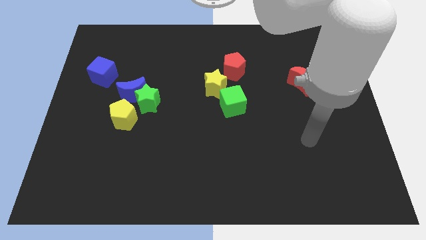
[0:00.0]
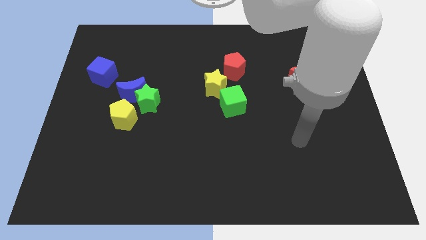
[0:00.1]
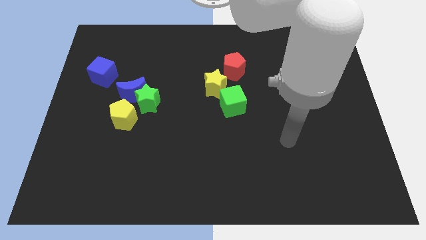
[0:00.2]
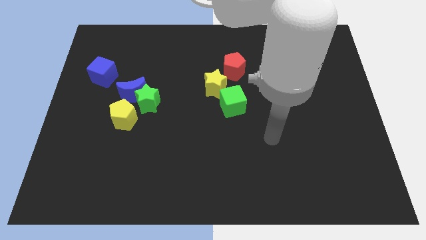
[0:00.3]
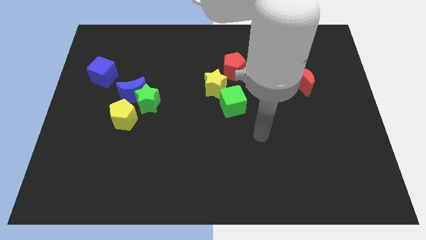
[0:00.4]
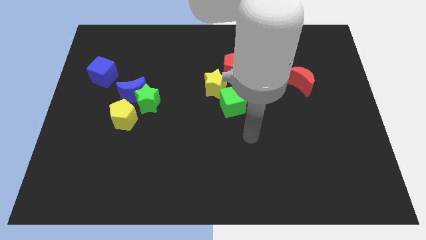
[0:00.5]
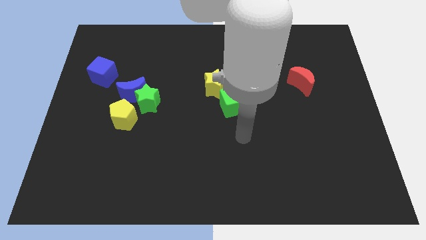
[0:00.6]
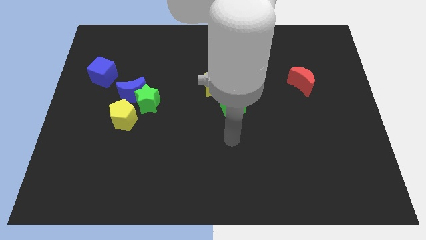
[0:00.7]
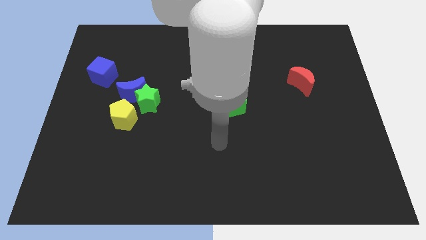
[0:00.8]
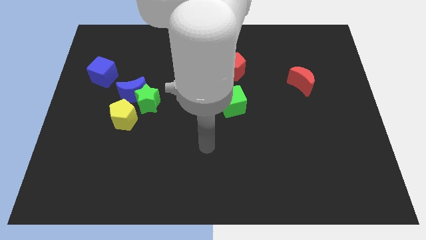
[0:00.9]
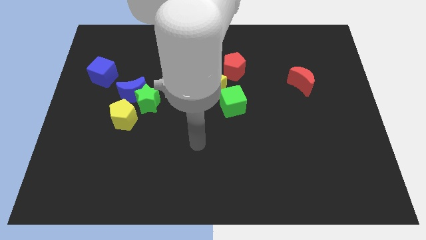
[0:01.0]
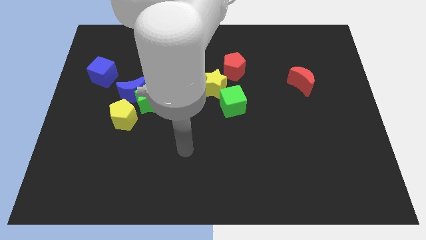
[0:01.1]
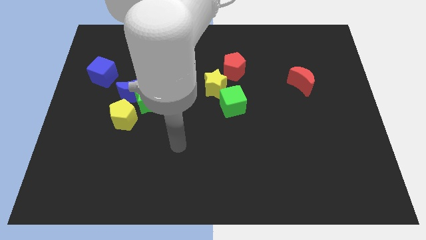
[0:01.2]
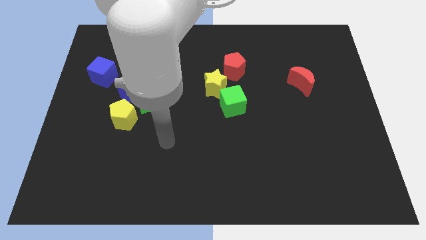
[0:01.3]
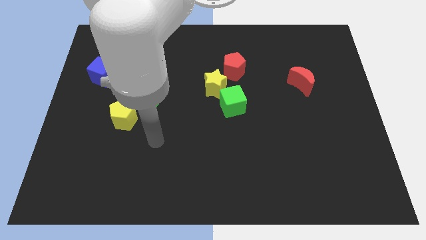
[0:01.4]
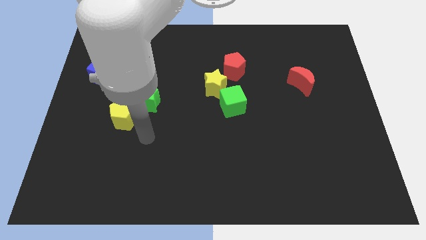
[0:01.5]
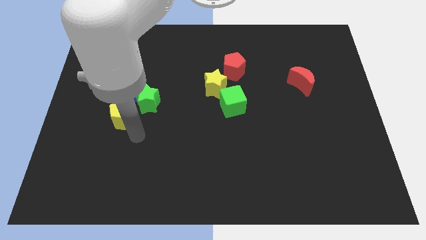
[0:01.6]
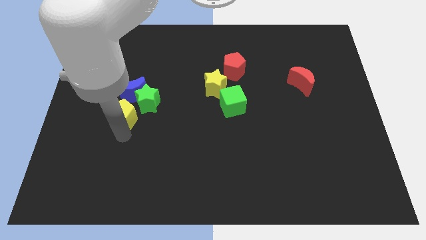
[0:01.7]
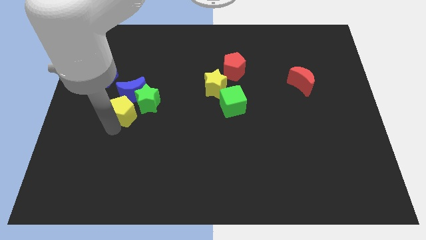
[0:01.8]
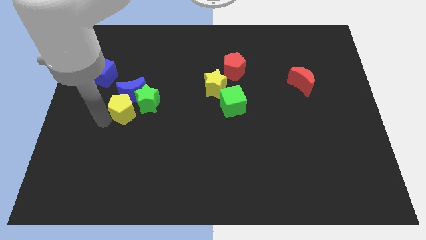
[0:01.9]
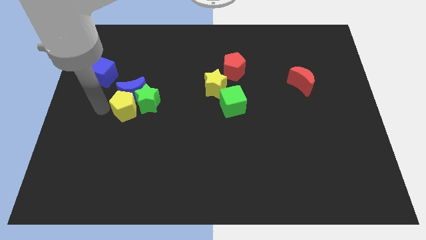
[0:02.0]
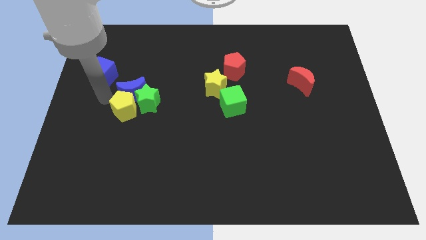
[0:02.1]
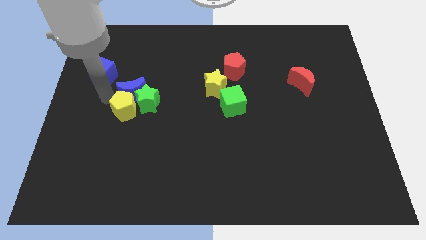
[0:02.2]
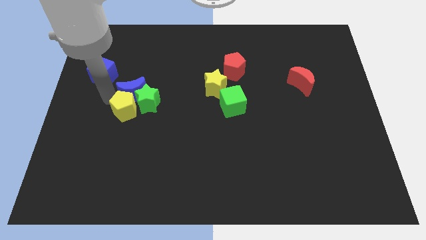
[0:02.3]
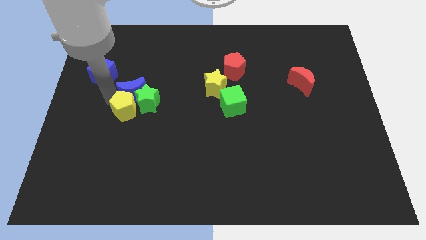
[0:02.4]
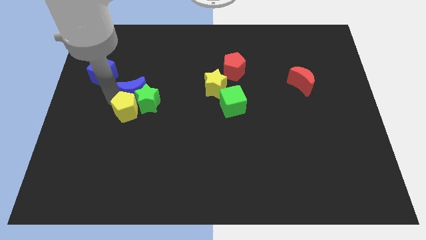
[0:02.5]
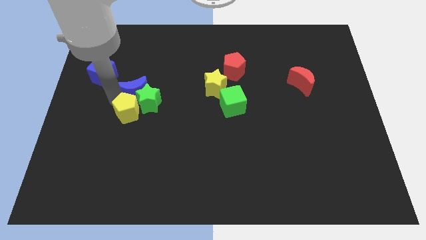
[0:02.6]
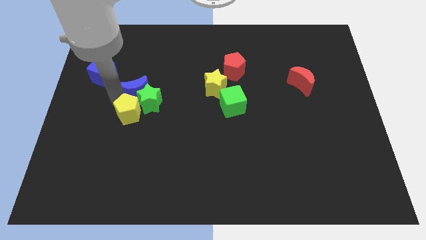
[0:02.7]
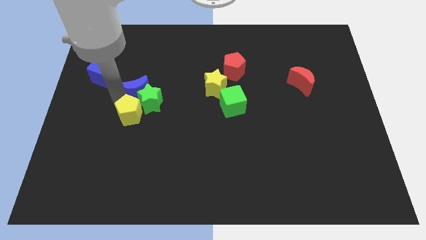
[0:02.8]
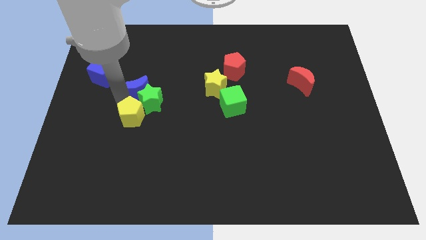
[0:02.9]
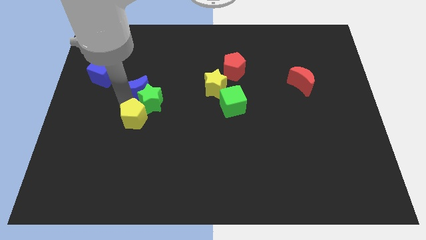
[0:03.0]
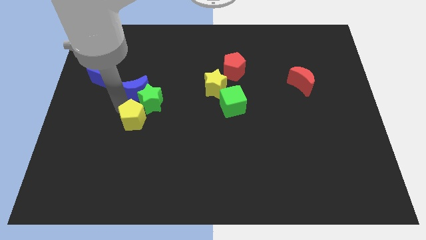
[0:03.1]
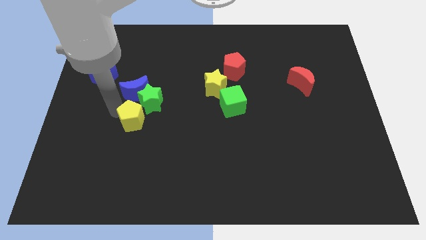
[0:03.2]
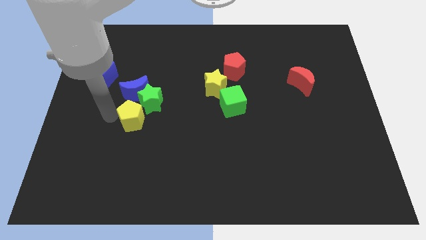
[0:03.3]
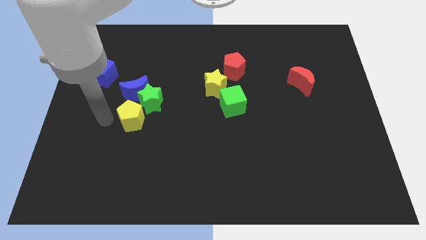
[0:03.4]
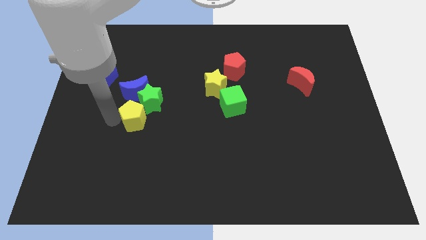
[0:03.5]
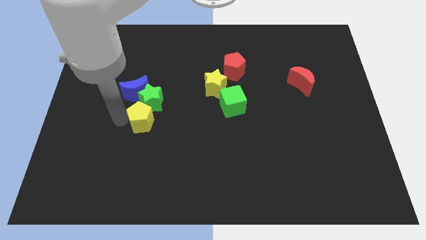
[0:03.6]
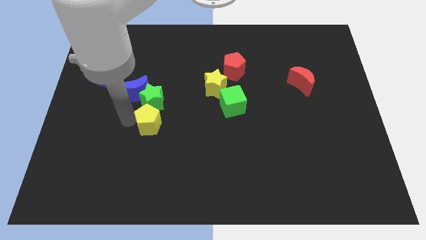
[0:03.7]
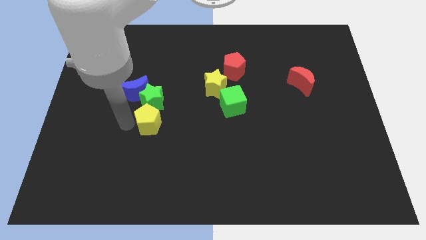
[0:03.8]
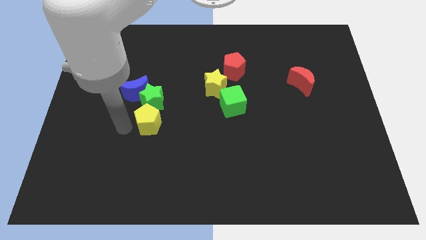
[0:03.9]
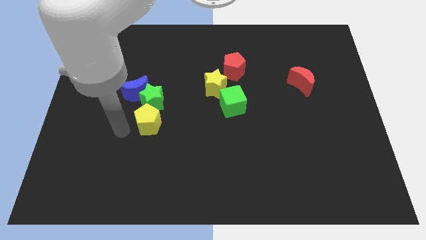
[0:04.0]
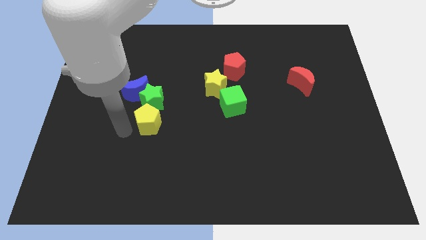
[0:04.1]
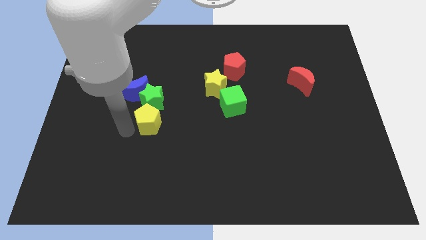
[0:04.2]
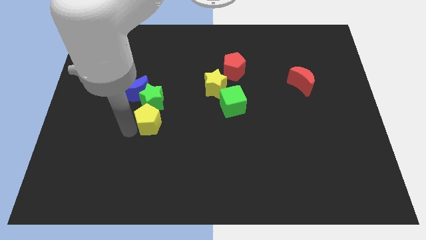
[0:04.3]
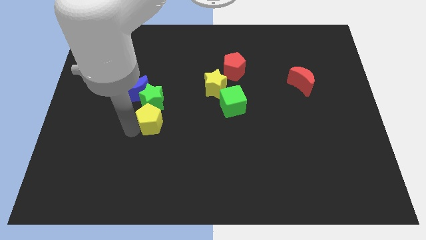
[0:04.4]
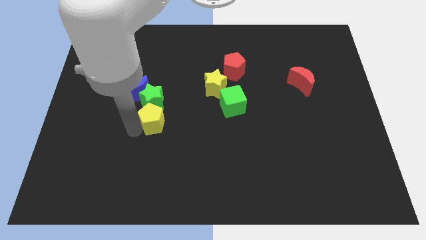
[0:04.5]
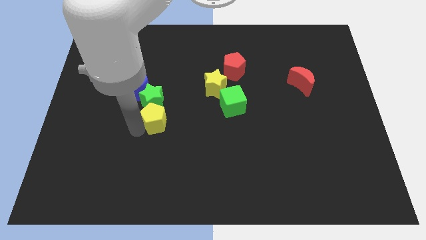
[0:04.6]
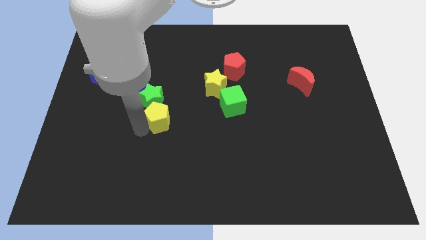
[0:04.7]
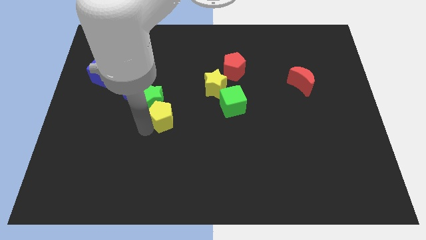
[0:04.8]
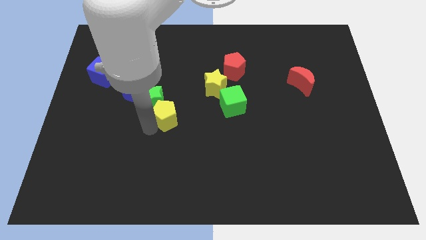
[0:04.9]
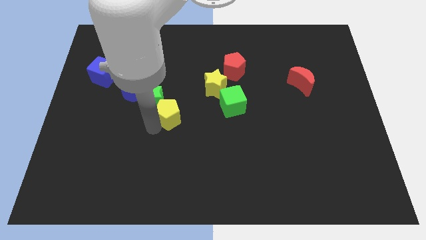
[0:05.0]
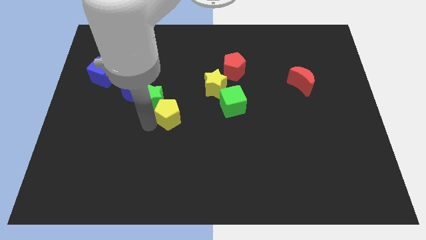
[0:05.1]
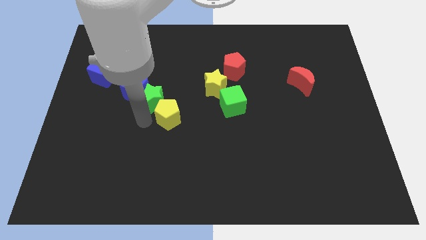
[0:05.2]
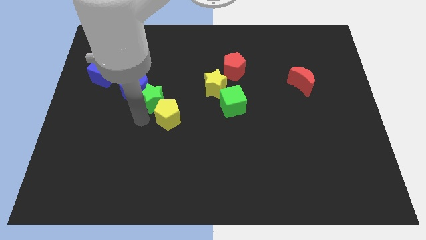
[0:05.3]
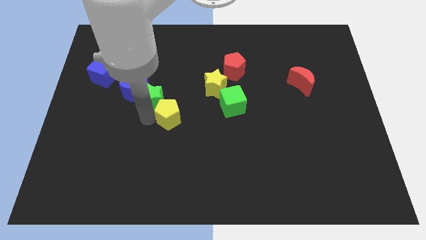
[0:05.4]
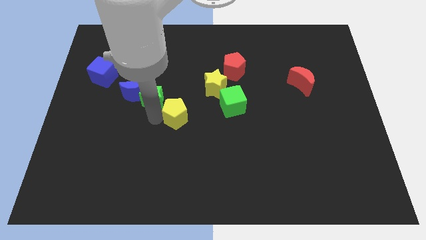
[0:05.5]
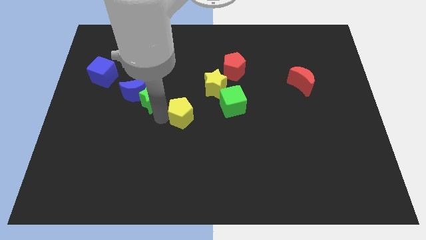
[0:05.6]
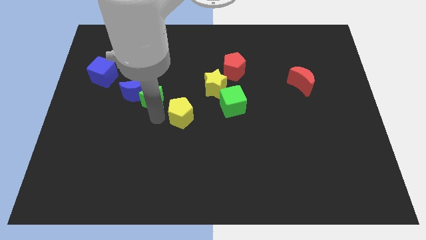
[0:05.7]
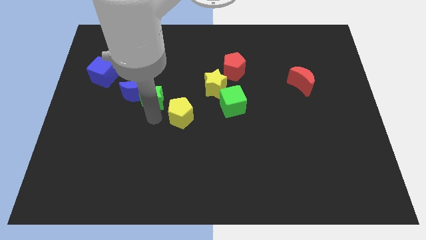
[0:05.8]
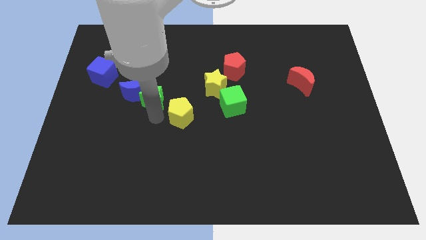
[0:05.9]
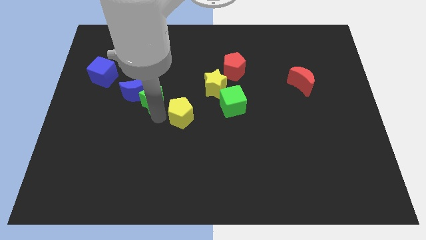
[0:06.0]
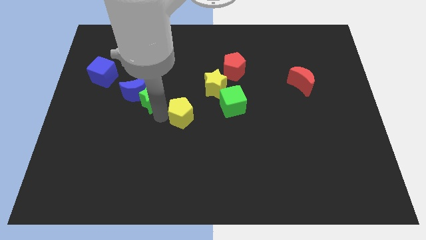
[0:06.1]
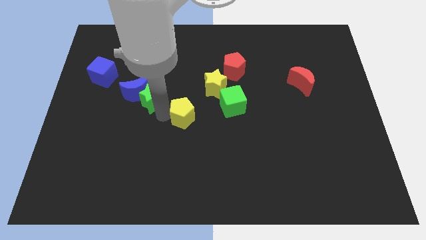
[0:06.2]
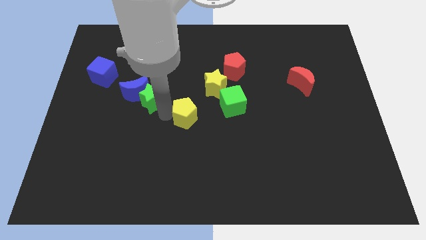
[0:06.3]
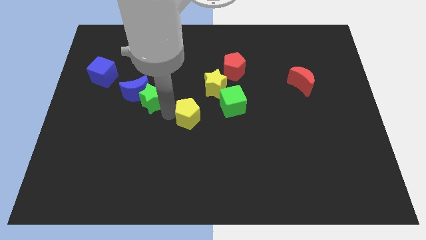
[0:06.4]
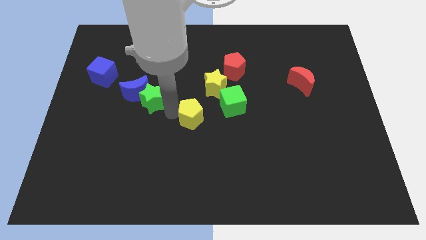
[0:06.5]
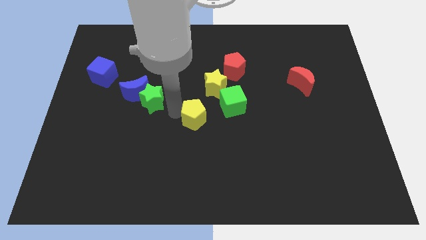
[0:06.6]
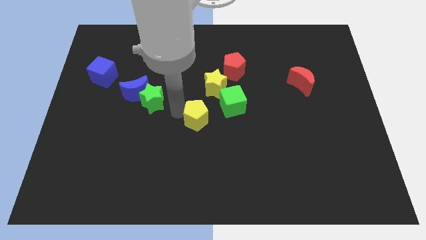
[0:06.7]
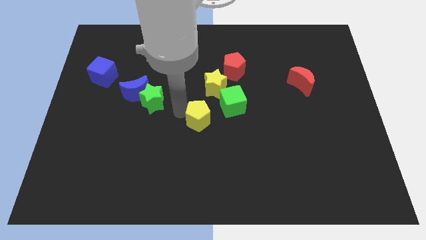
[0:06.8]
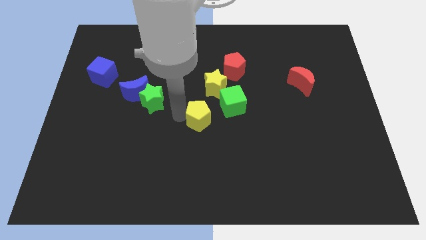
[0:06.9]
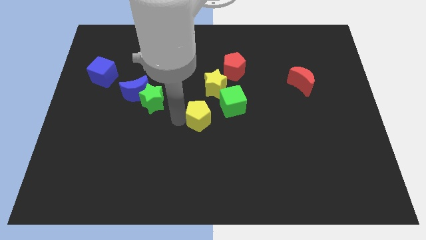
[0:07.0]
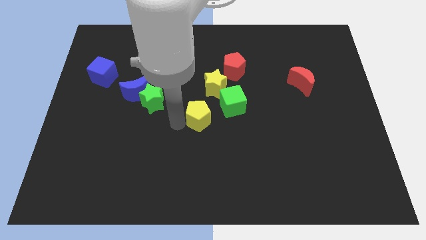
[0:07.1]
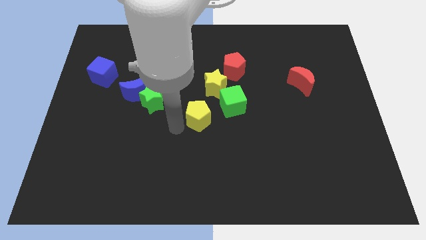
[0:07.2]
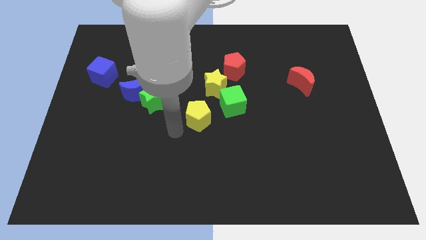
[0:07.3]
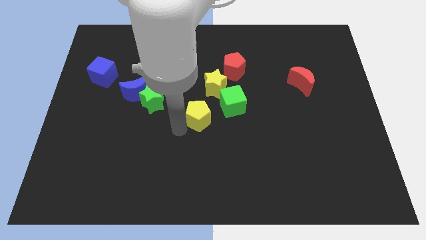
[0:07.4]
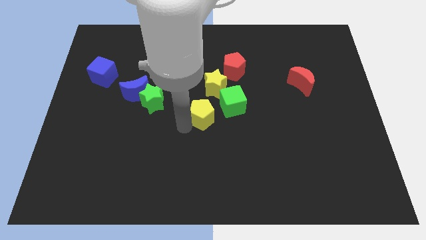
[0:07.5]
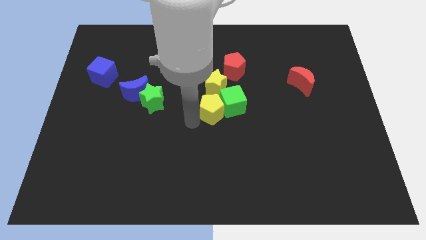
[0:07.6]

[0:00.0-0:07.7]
slide the yellow pentagon close to the green cube
